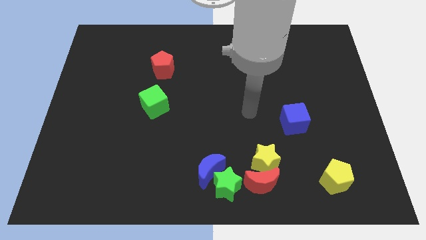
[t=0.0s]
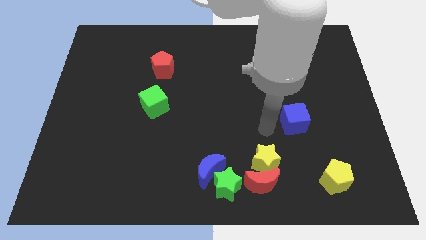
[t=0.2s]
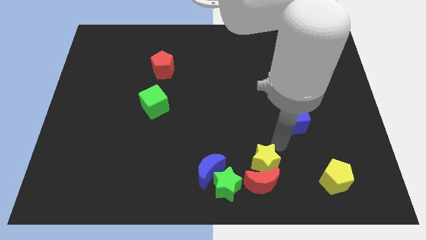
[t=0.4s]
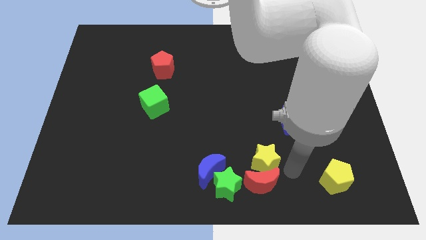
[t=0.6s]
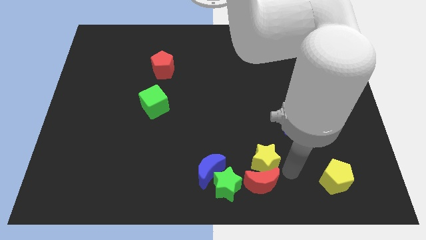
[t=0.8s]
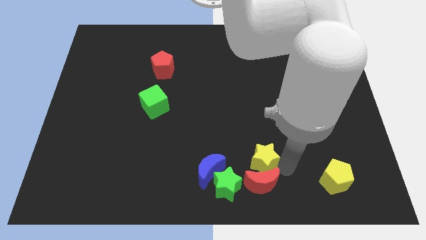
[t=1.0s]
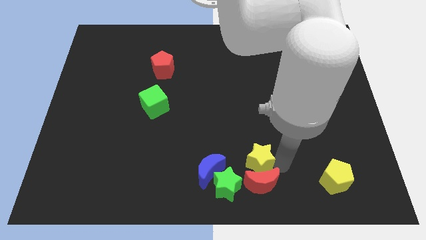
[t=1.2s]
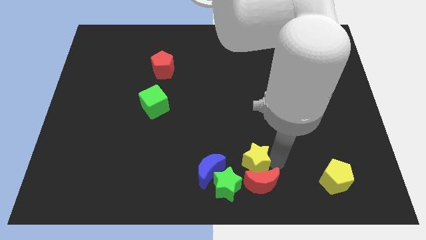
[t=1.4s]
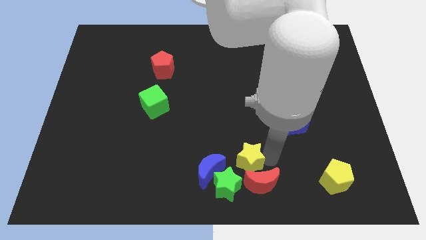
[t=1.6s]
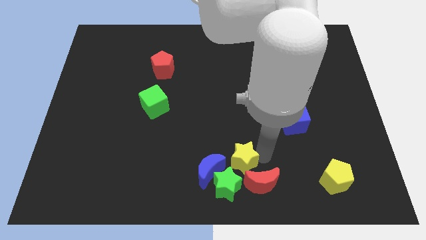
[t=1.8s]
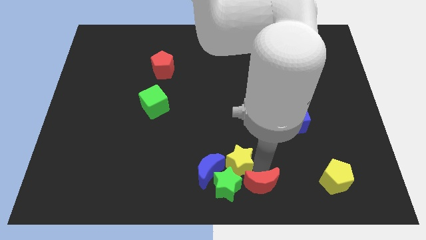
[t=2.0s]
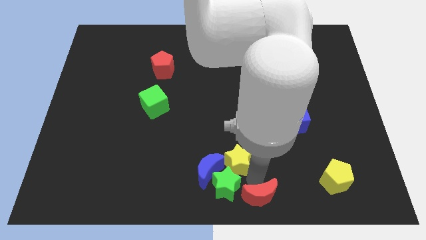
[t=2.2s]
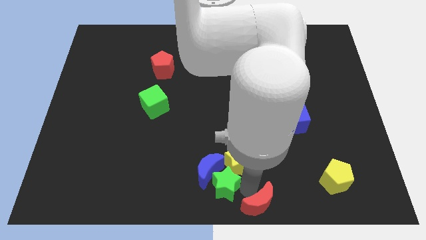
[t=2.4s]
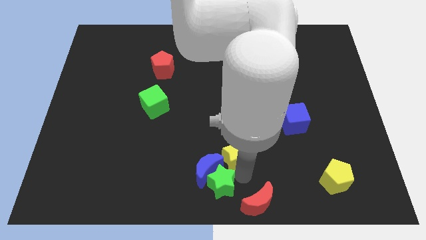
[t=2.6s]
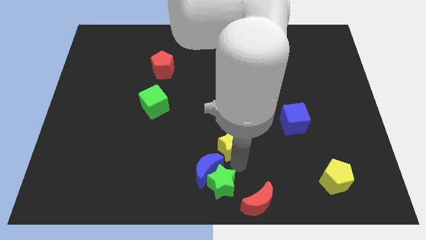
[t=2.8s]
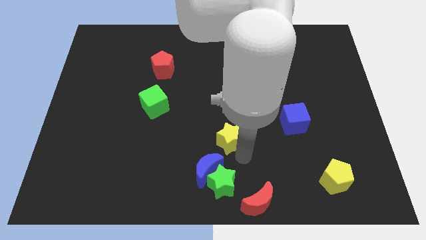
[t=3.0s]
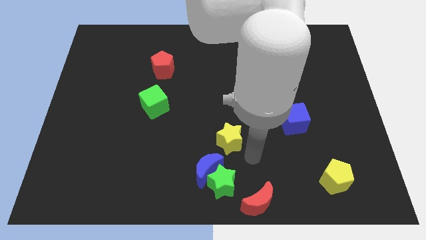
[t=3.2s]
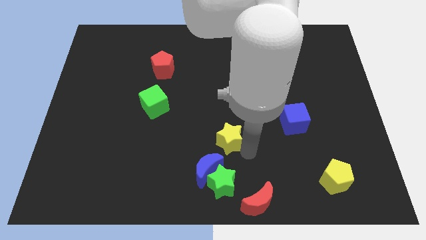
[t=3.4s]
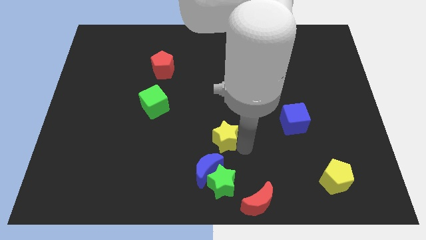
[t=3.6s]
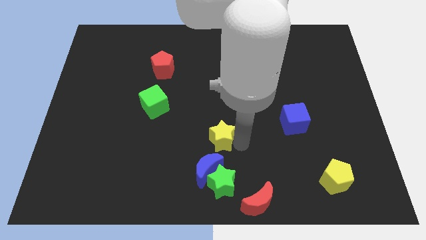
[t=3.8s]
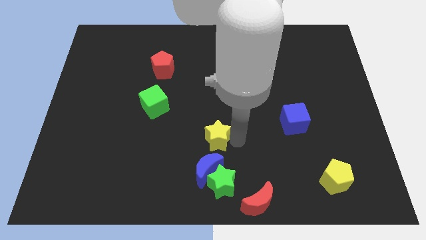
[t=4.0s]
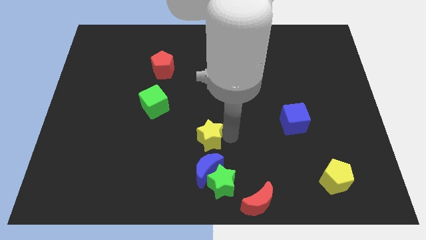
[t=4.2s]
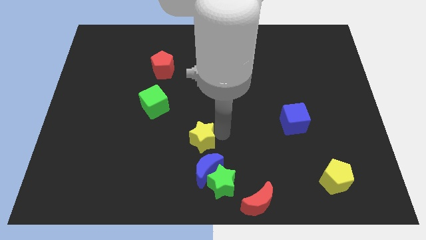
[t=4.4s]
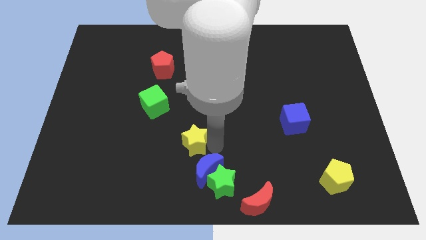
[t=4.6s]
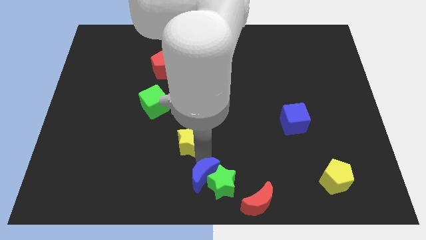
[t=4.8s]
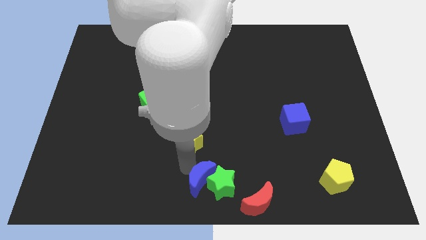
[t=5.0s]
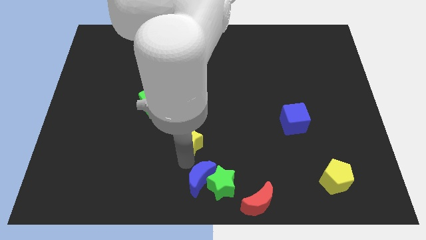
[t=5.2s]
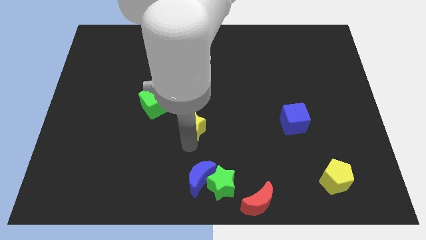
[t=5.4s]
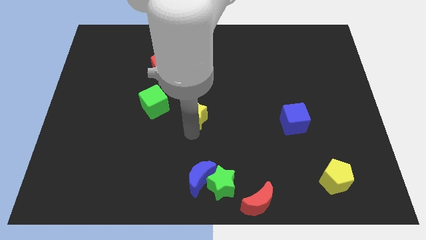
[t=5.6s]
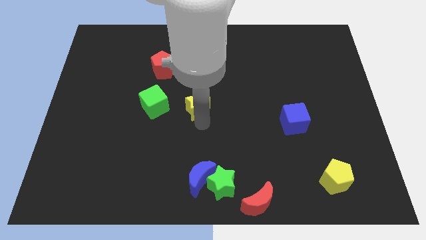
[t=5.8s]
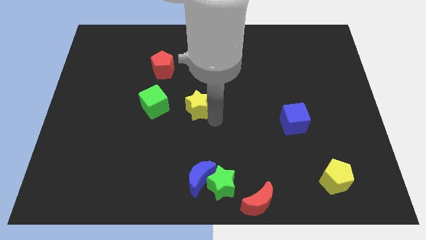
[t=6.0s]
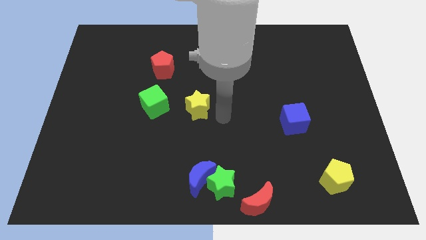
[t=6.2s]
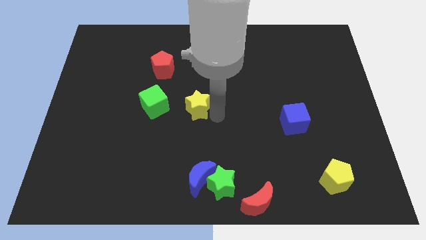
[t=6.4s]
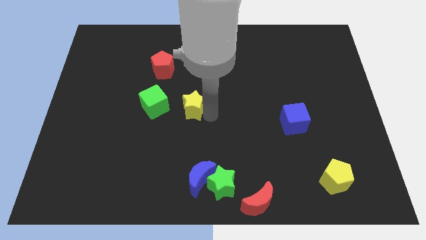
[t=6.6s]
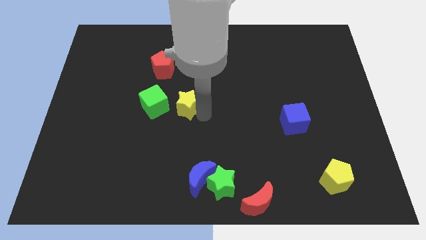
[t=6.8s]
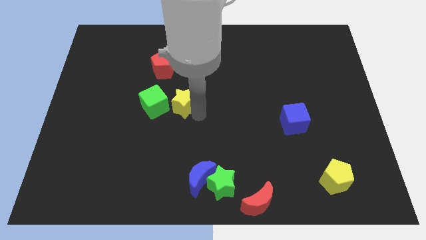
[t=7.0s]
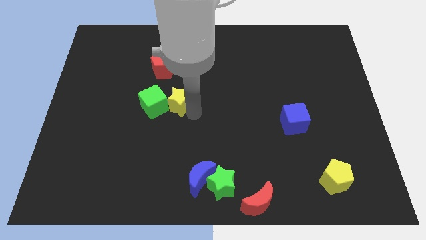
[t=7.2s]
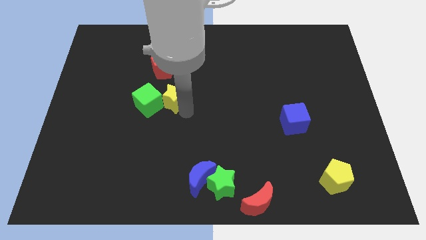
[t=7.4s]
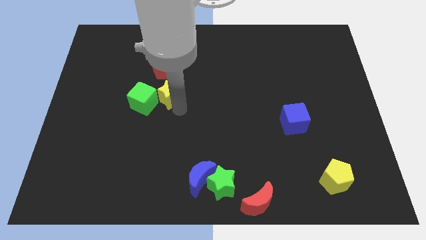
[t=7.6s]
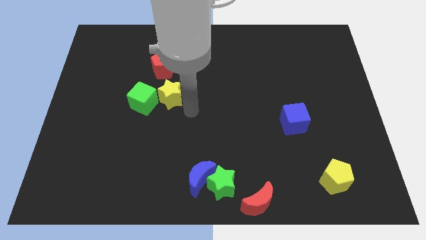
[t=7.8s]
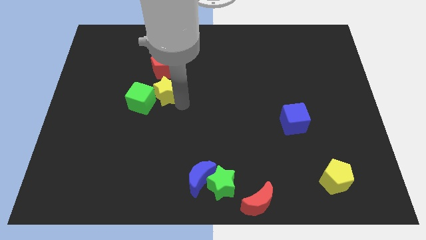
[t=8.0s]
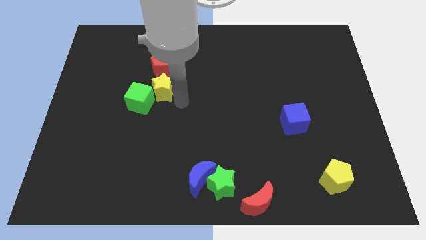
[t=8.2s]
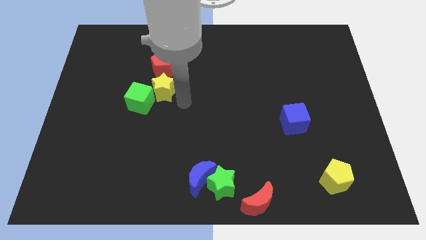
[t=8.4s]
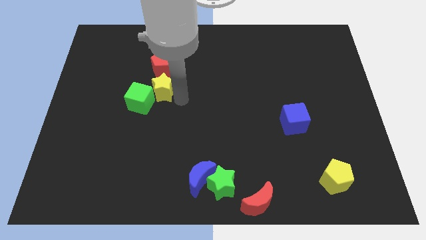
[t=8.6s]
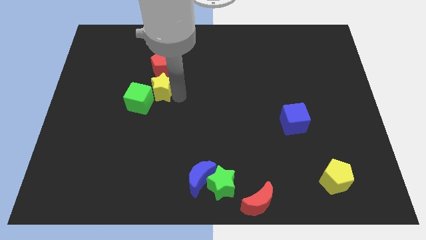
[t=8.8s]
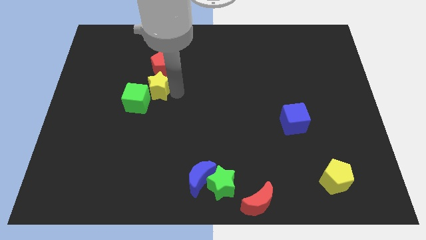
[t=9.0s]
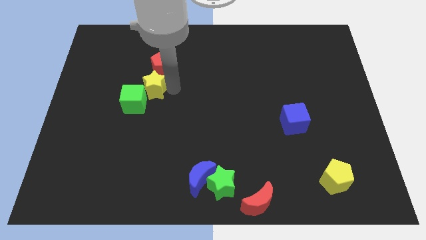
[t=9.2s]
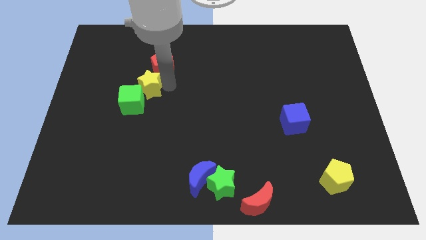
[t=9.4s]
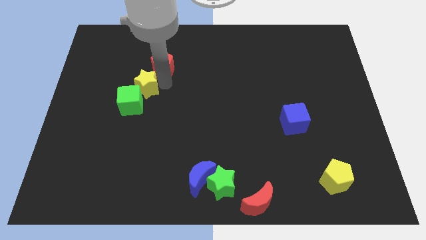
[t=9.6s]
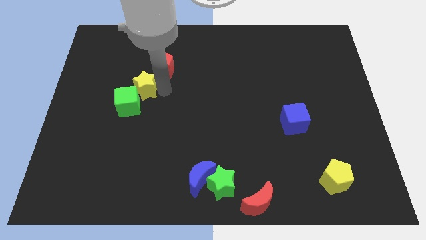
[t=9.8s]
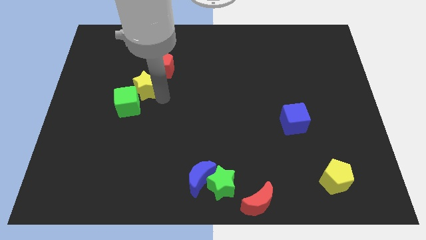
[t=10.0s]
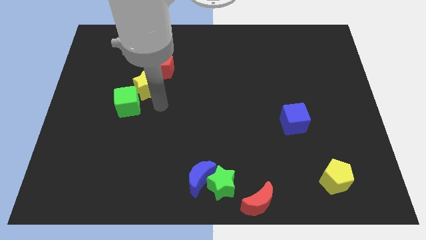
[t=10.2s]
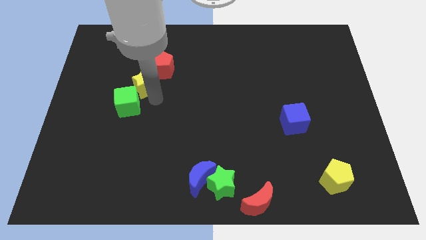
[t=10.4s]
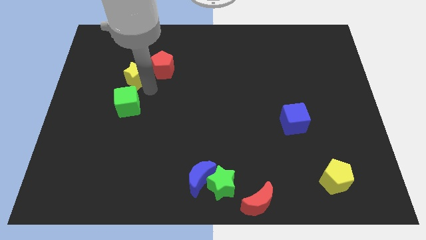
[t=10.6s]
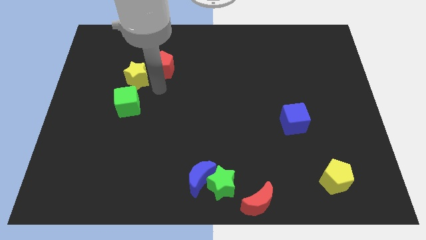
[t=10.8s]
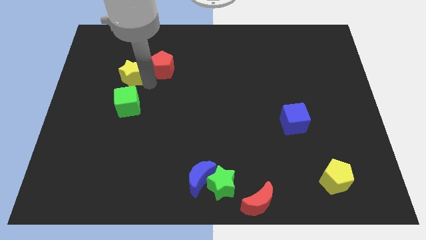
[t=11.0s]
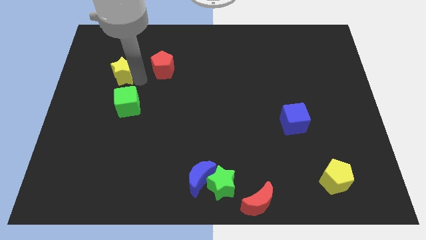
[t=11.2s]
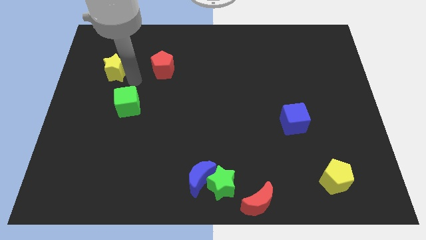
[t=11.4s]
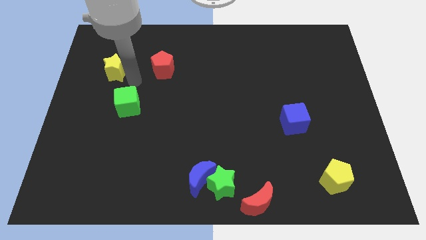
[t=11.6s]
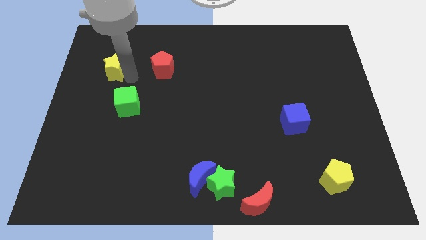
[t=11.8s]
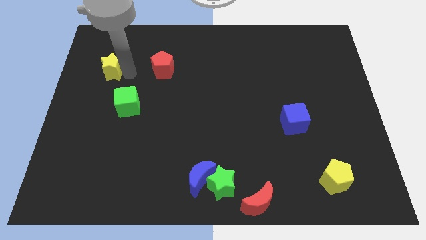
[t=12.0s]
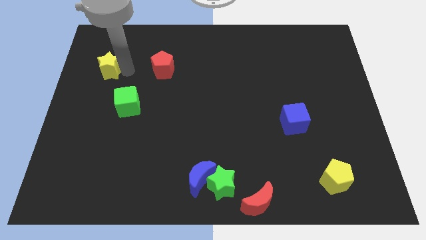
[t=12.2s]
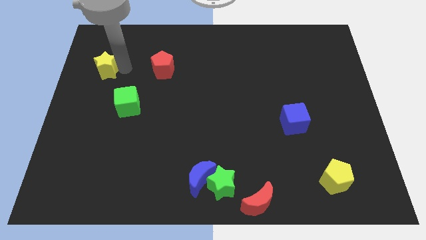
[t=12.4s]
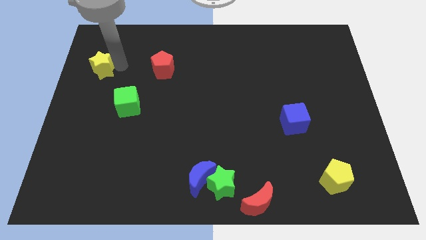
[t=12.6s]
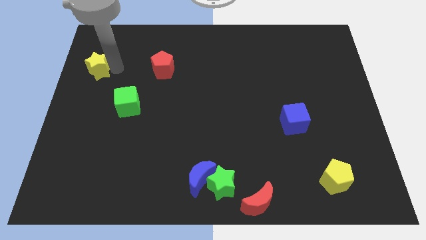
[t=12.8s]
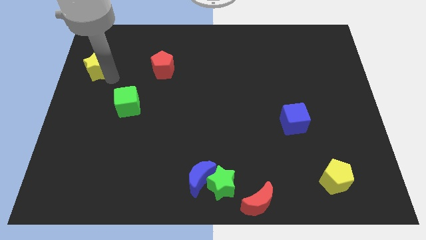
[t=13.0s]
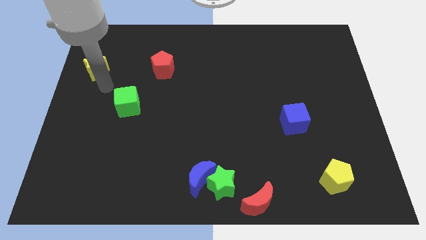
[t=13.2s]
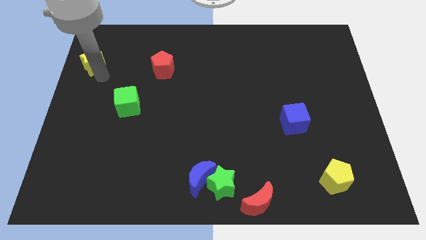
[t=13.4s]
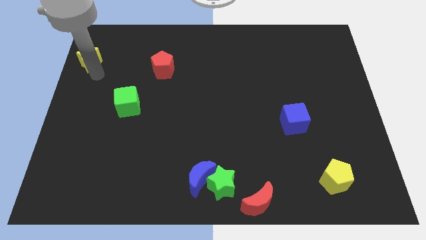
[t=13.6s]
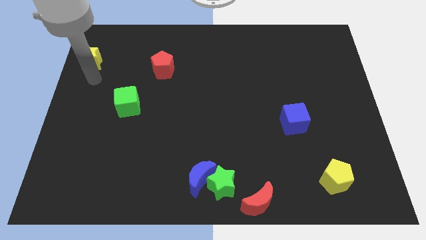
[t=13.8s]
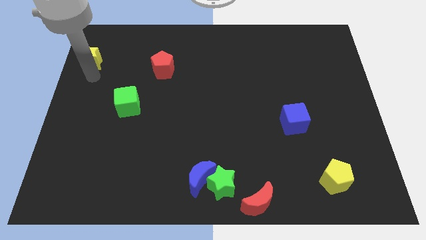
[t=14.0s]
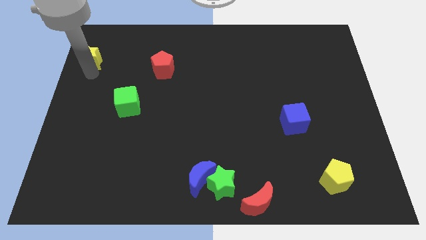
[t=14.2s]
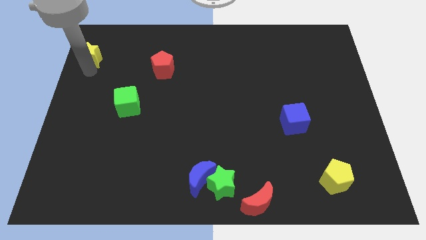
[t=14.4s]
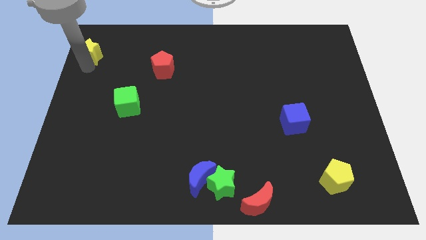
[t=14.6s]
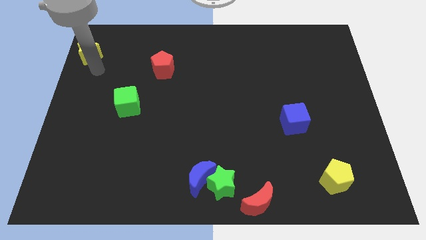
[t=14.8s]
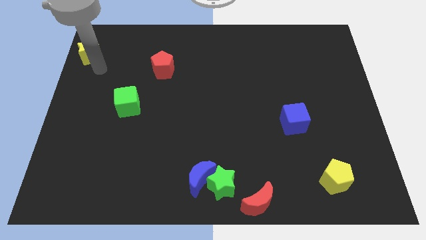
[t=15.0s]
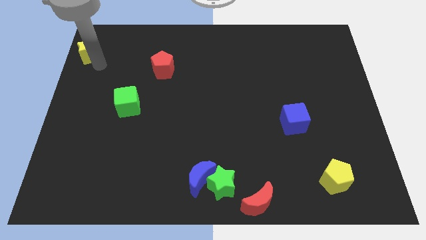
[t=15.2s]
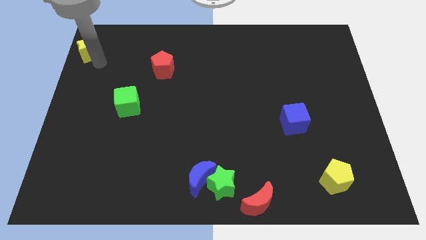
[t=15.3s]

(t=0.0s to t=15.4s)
put the yellow star to the upper left corner
